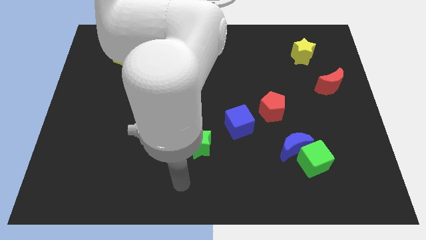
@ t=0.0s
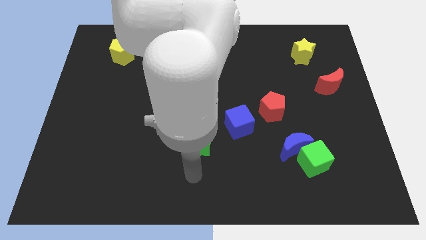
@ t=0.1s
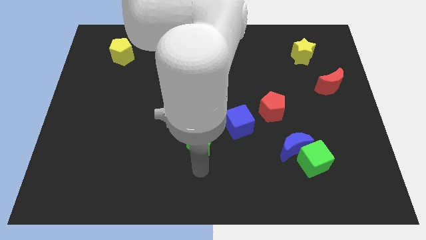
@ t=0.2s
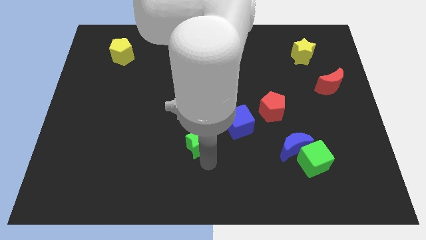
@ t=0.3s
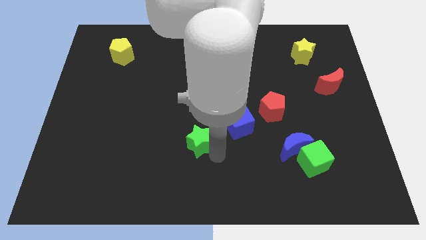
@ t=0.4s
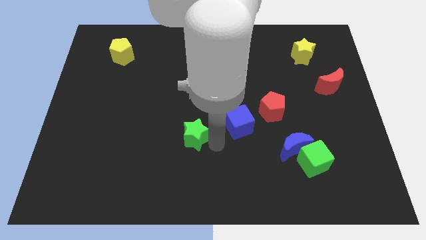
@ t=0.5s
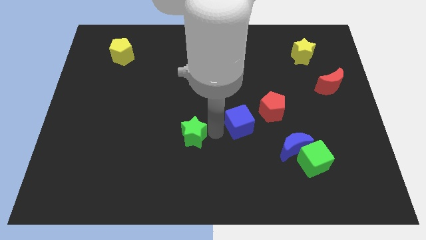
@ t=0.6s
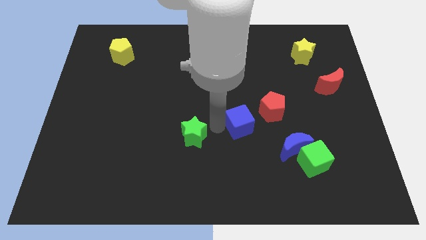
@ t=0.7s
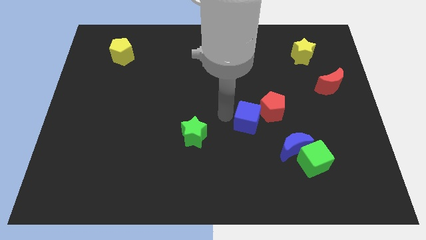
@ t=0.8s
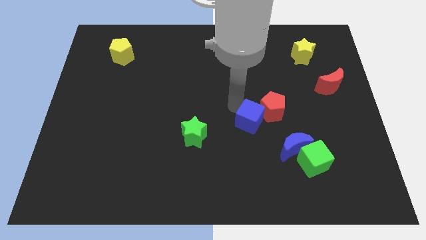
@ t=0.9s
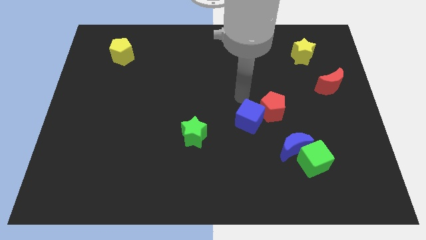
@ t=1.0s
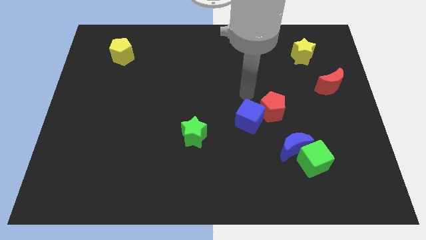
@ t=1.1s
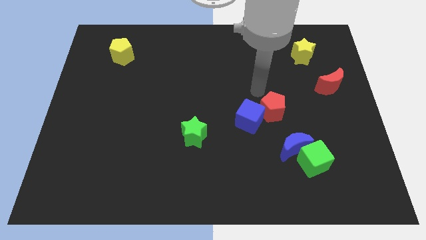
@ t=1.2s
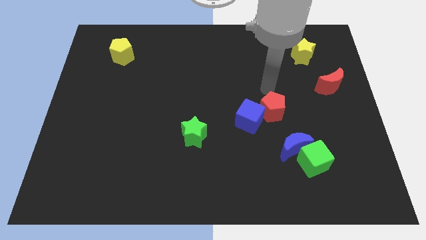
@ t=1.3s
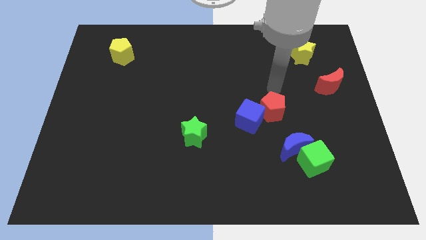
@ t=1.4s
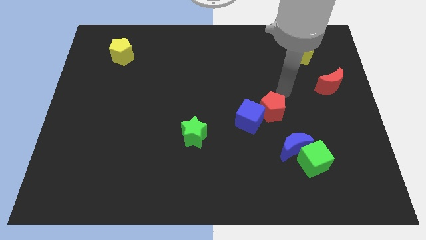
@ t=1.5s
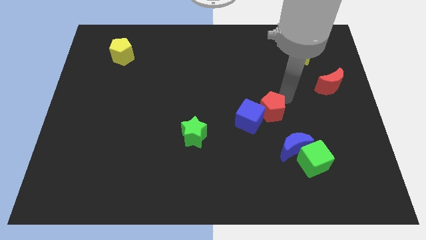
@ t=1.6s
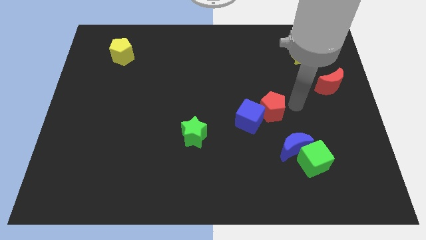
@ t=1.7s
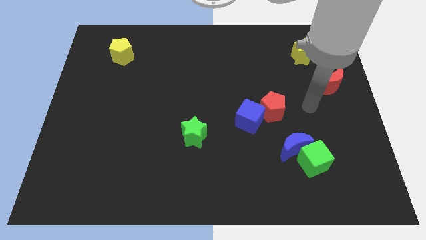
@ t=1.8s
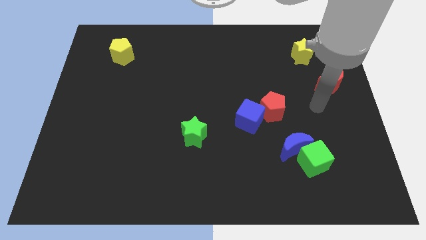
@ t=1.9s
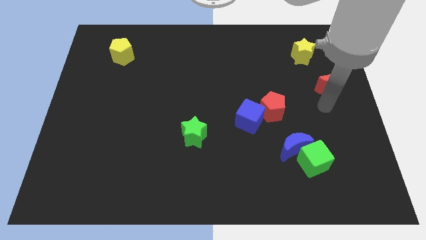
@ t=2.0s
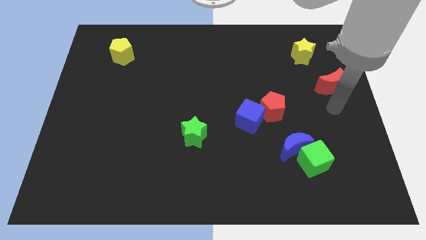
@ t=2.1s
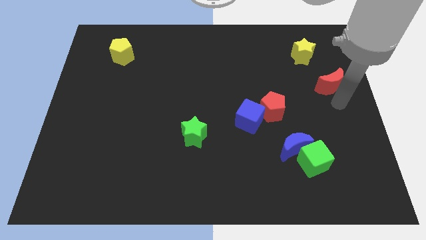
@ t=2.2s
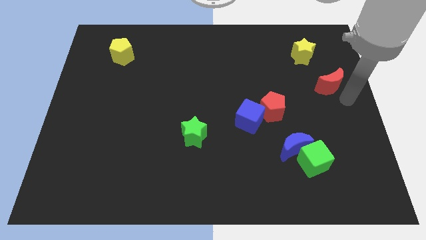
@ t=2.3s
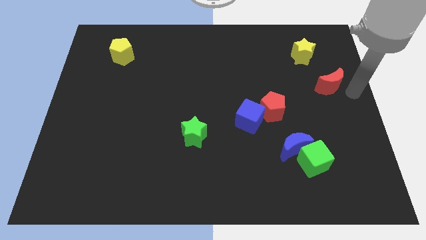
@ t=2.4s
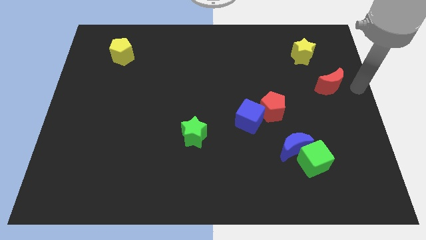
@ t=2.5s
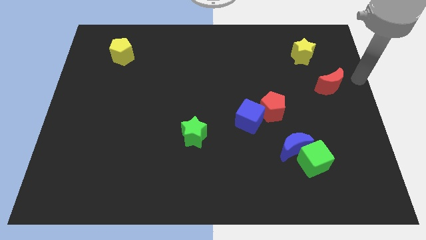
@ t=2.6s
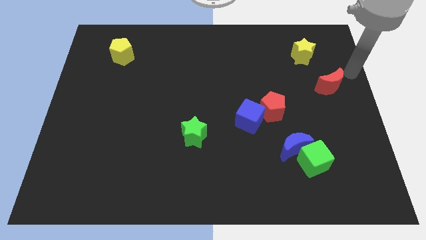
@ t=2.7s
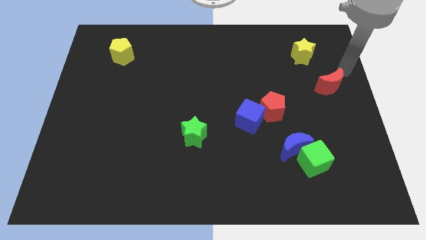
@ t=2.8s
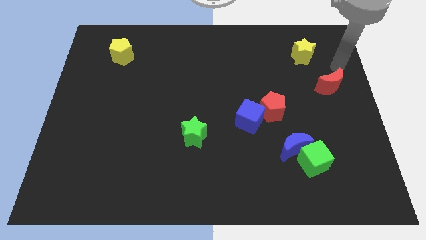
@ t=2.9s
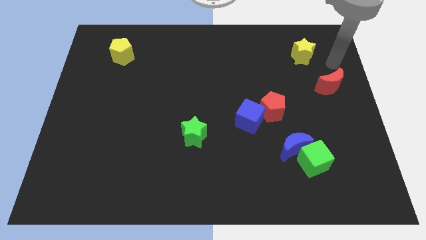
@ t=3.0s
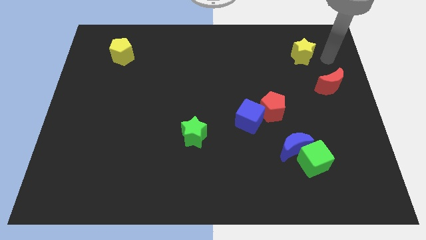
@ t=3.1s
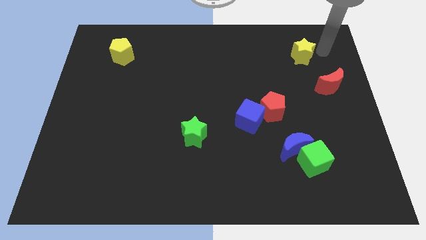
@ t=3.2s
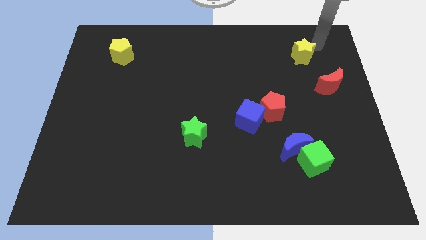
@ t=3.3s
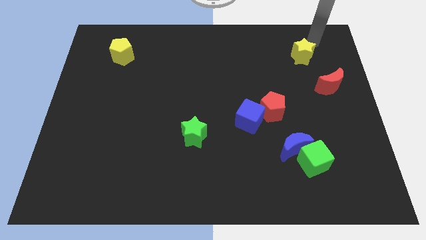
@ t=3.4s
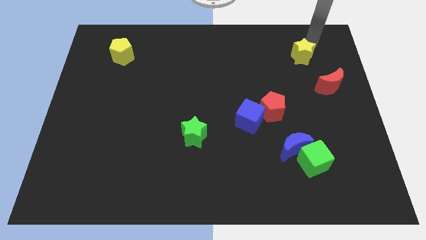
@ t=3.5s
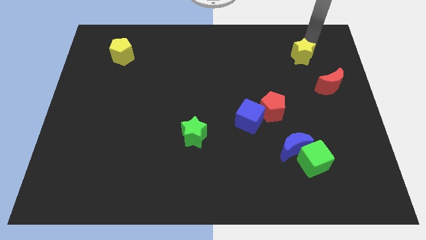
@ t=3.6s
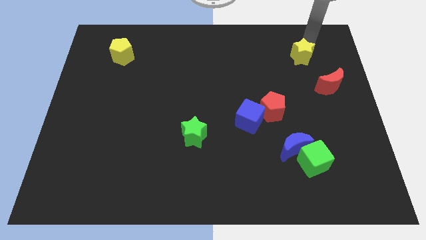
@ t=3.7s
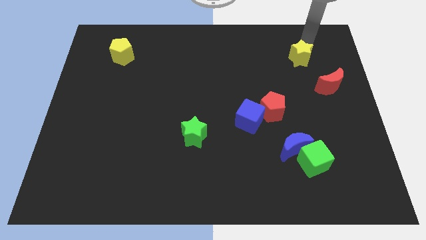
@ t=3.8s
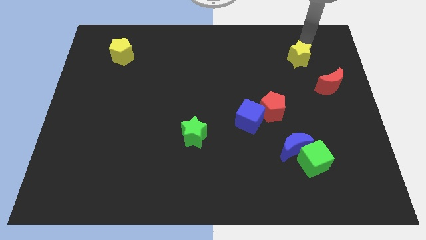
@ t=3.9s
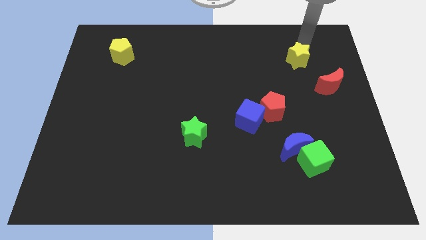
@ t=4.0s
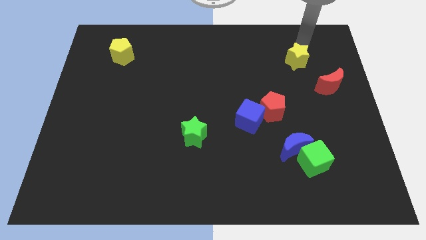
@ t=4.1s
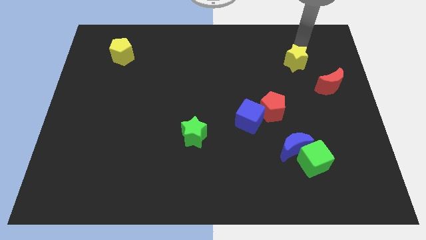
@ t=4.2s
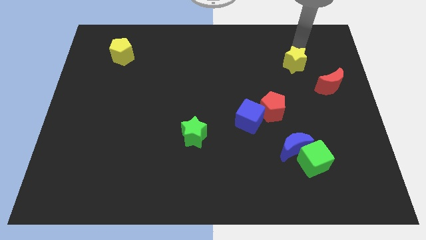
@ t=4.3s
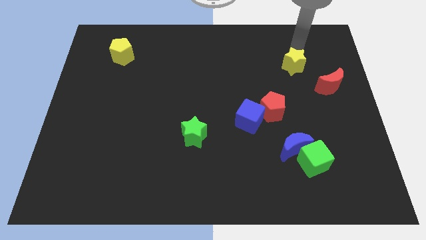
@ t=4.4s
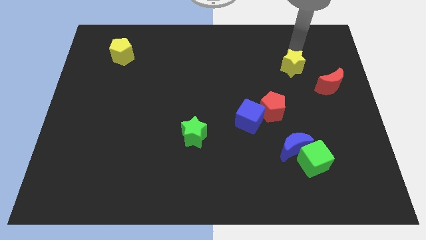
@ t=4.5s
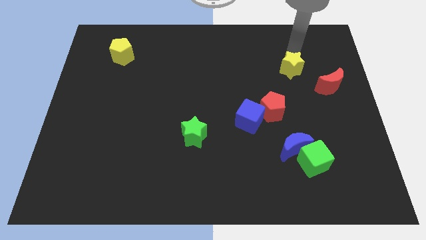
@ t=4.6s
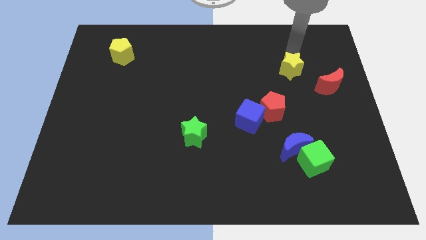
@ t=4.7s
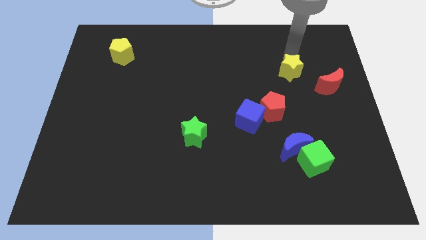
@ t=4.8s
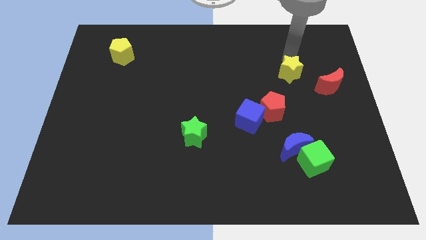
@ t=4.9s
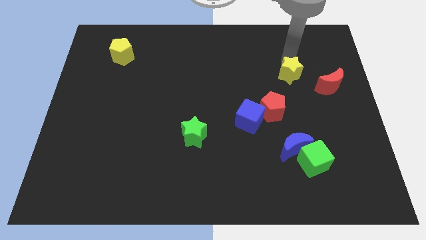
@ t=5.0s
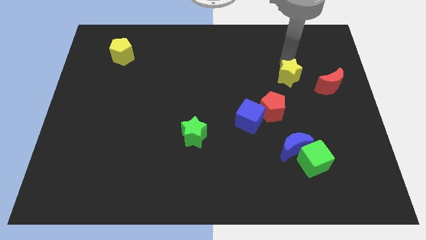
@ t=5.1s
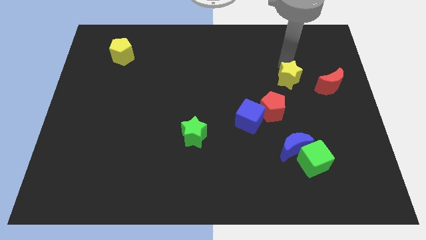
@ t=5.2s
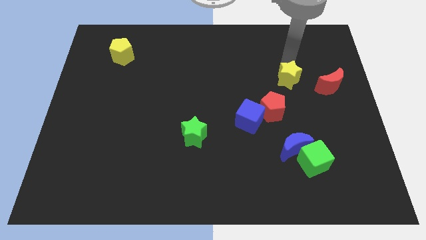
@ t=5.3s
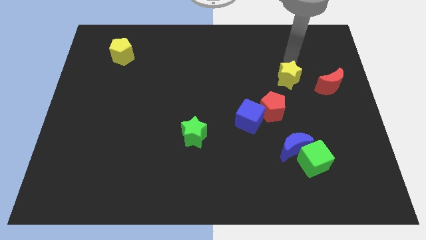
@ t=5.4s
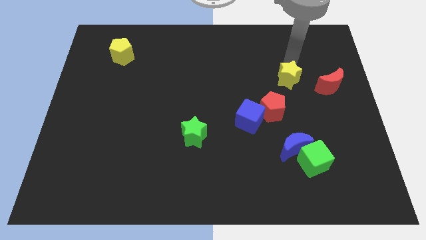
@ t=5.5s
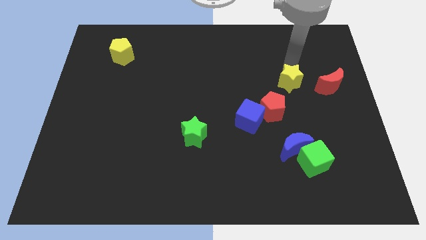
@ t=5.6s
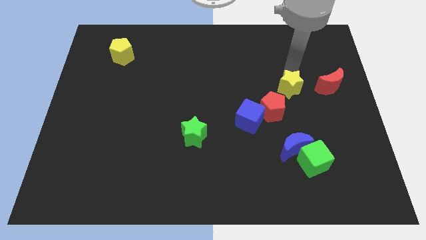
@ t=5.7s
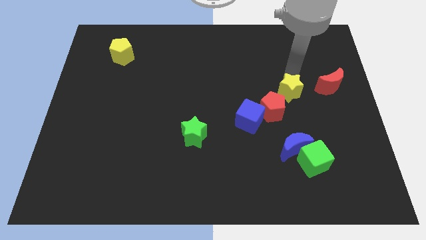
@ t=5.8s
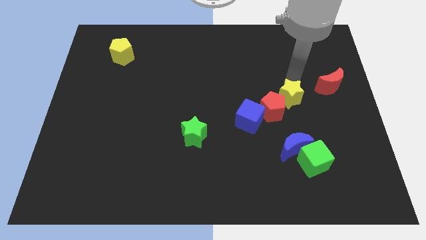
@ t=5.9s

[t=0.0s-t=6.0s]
put the yellow star to the red pentagon

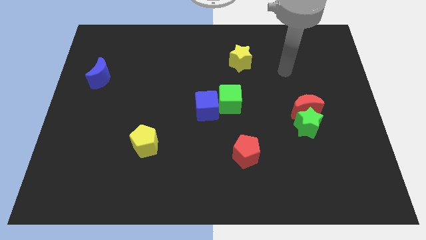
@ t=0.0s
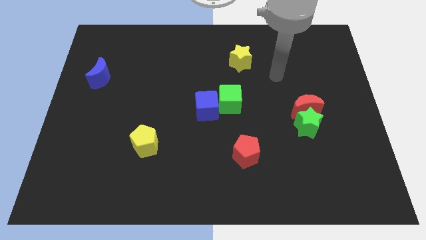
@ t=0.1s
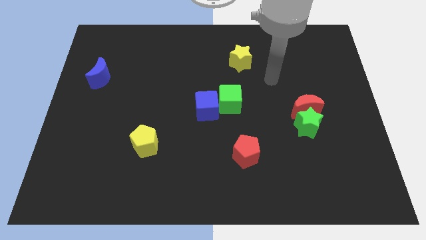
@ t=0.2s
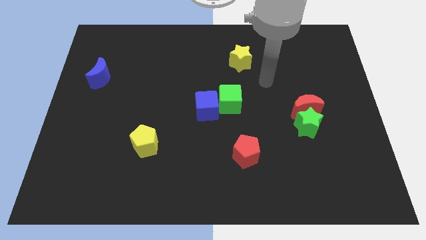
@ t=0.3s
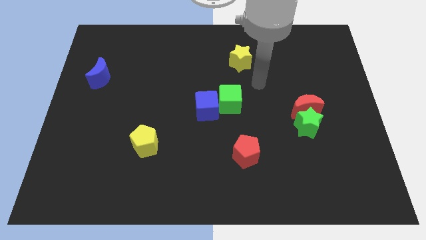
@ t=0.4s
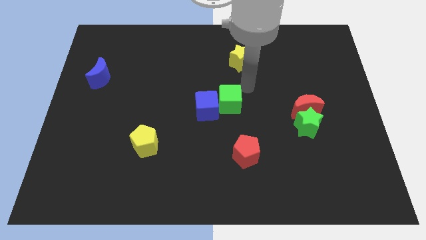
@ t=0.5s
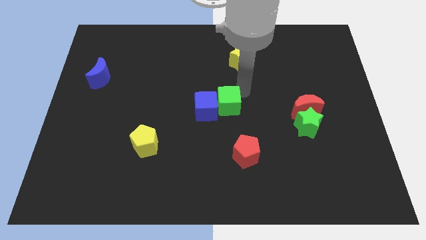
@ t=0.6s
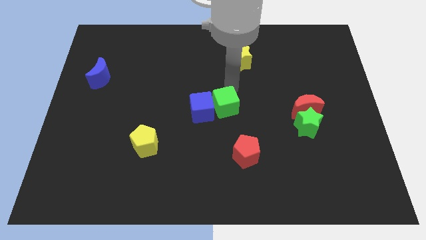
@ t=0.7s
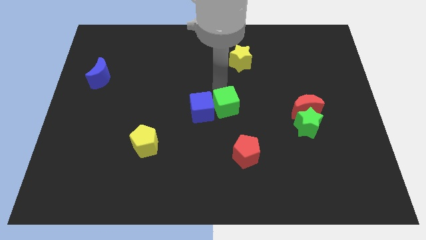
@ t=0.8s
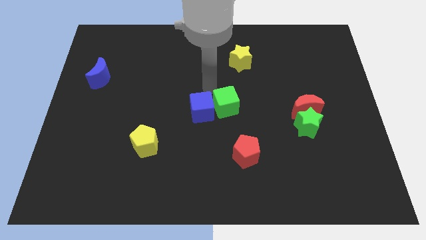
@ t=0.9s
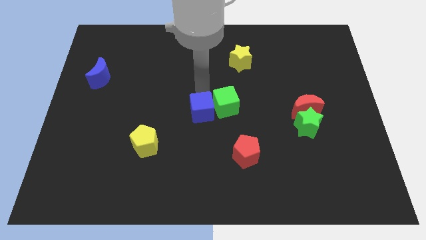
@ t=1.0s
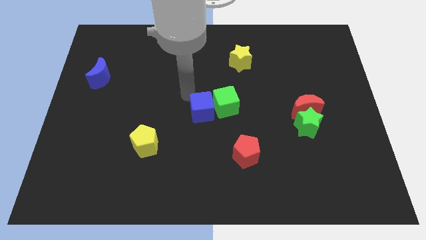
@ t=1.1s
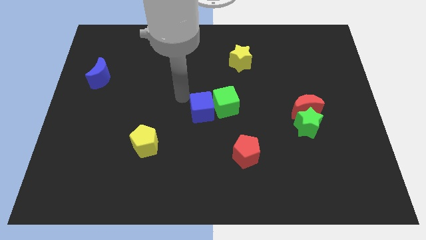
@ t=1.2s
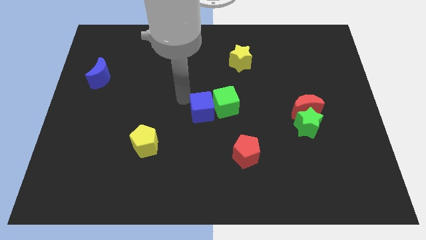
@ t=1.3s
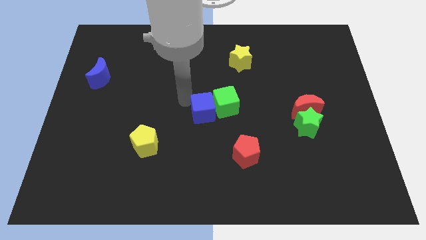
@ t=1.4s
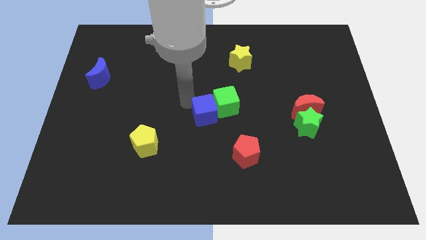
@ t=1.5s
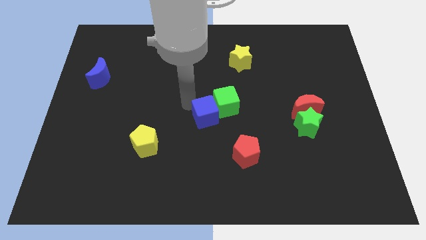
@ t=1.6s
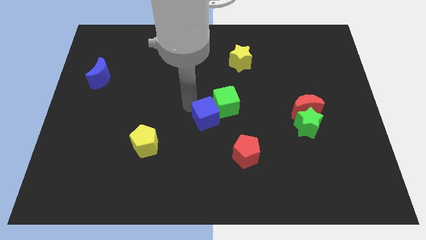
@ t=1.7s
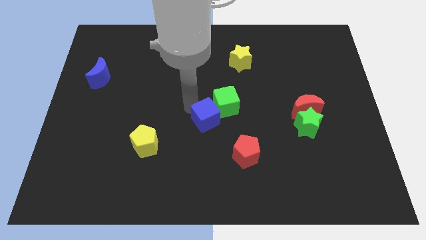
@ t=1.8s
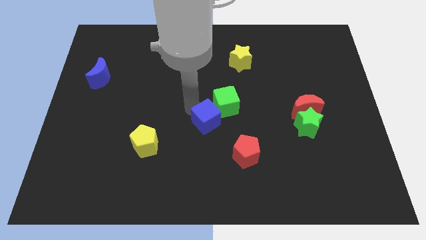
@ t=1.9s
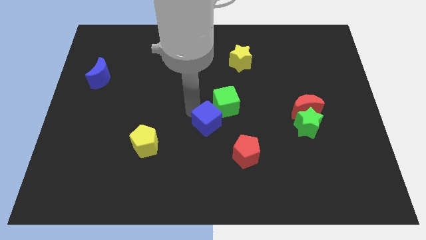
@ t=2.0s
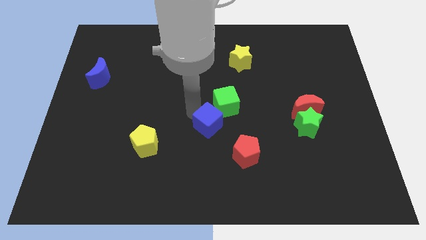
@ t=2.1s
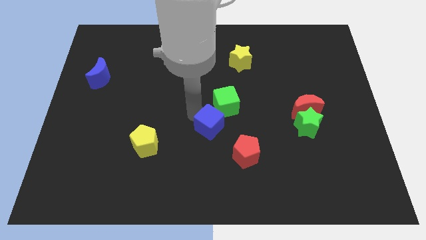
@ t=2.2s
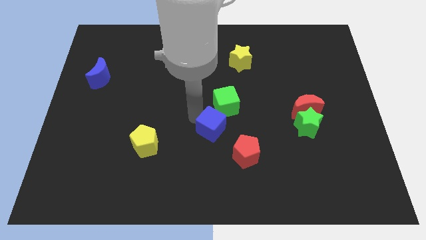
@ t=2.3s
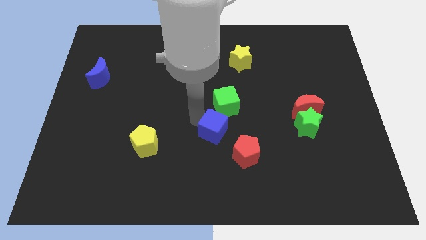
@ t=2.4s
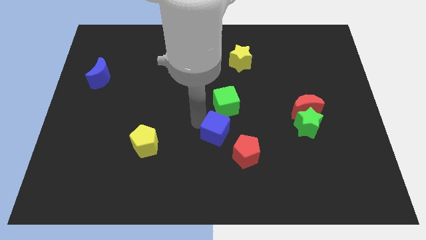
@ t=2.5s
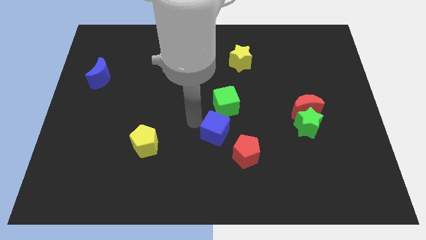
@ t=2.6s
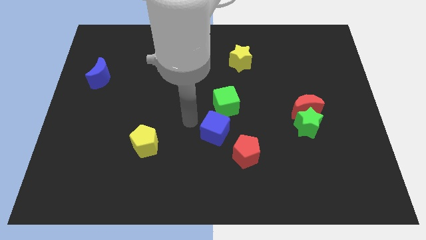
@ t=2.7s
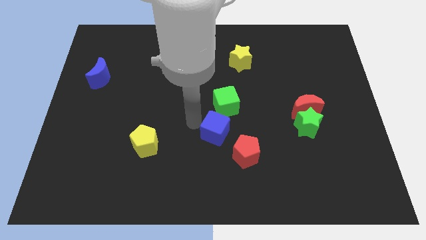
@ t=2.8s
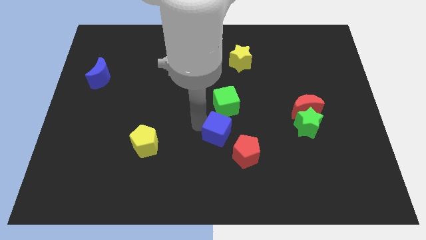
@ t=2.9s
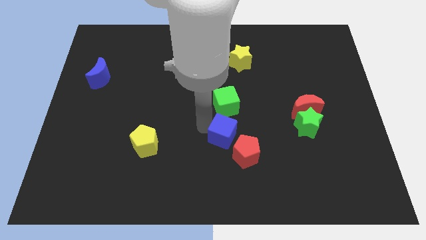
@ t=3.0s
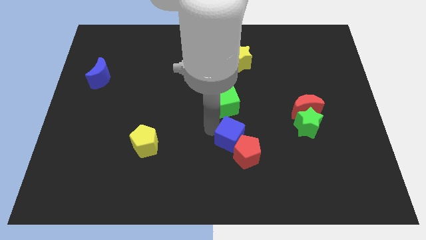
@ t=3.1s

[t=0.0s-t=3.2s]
put the blue cube towards the red pentagon
